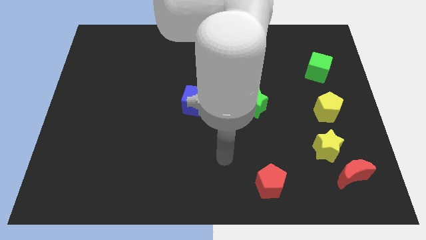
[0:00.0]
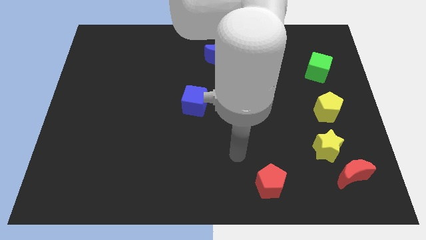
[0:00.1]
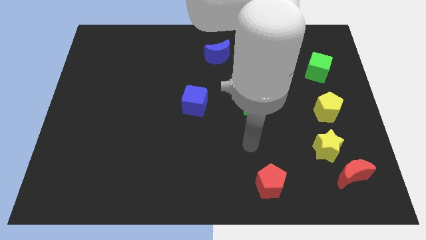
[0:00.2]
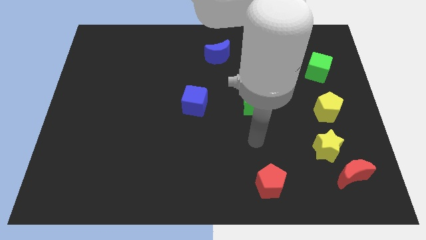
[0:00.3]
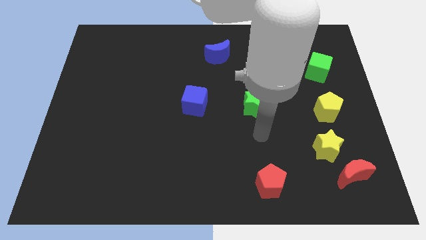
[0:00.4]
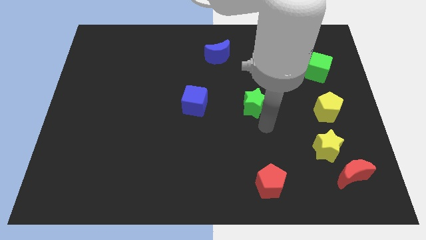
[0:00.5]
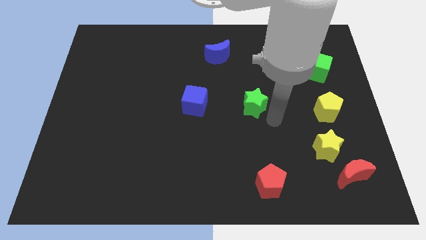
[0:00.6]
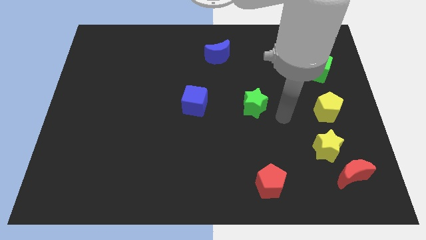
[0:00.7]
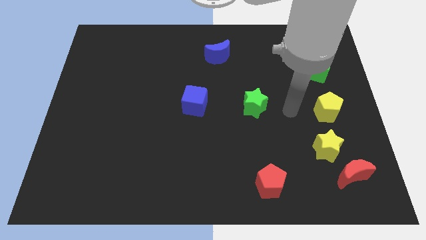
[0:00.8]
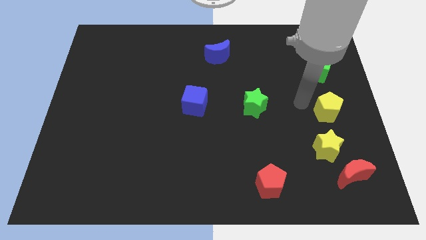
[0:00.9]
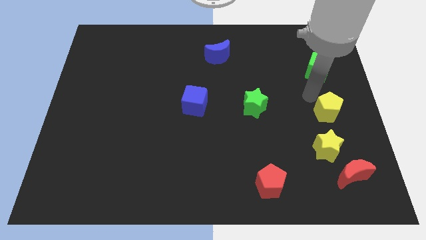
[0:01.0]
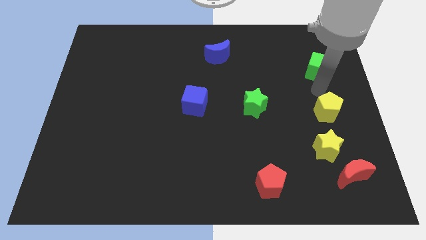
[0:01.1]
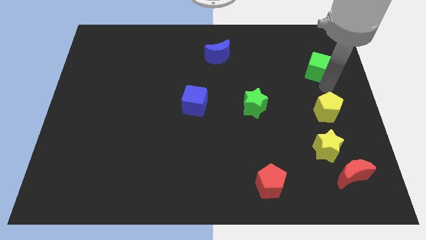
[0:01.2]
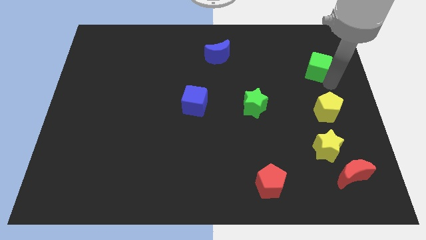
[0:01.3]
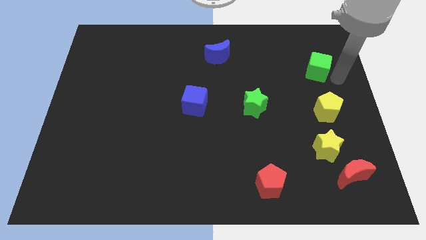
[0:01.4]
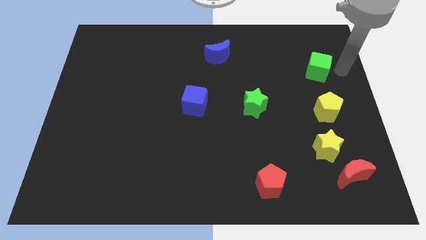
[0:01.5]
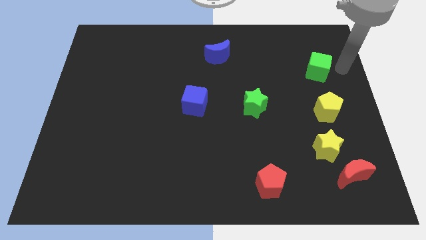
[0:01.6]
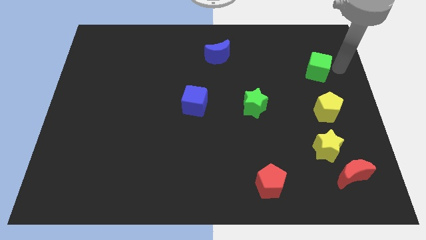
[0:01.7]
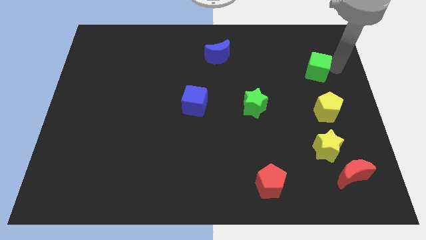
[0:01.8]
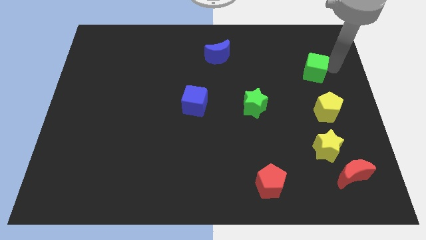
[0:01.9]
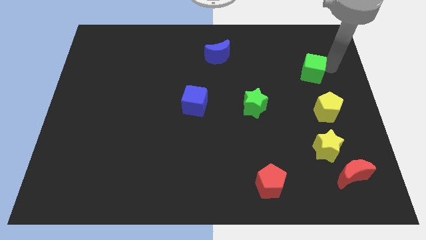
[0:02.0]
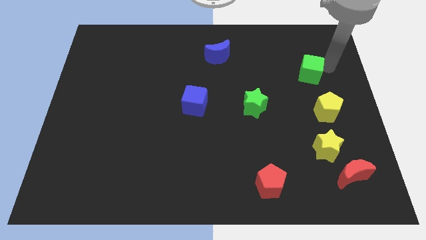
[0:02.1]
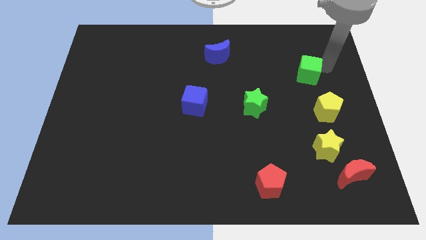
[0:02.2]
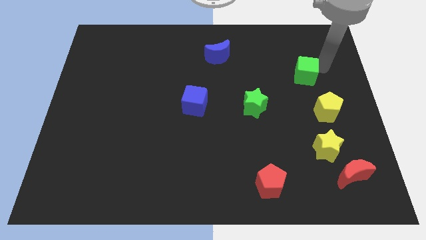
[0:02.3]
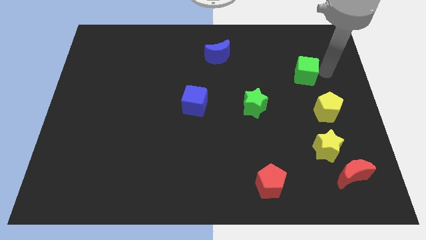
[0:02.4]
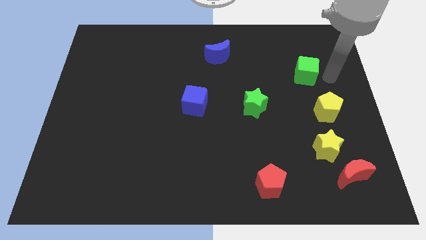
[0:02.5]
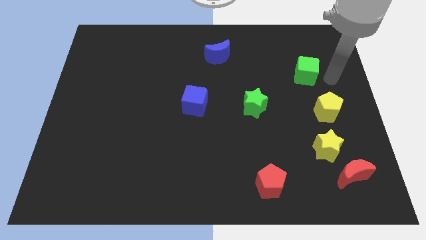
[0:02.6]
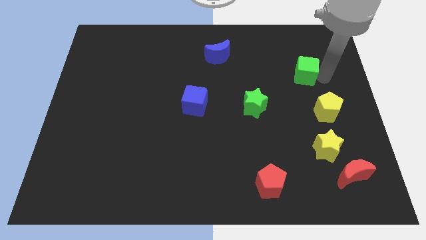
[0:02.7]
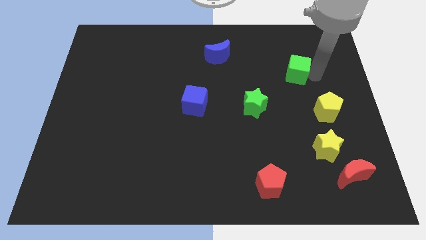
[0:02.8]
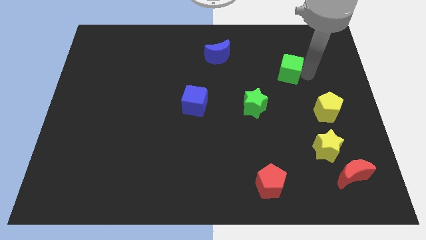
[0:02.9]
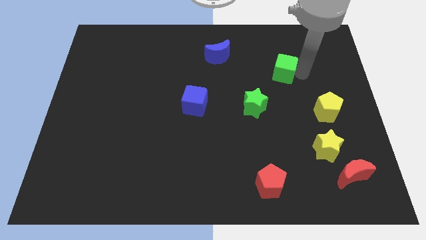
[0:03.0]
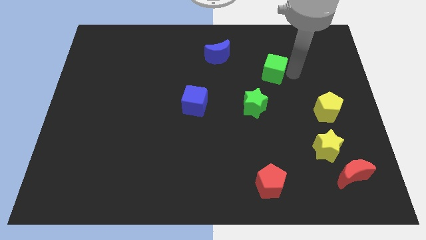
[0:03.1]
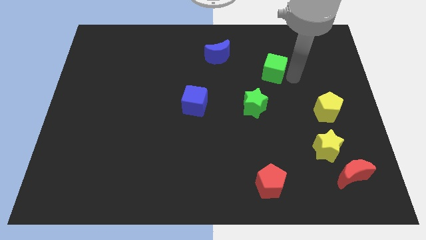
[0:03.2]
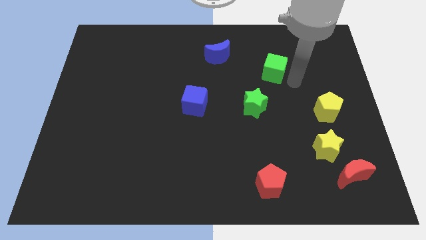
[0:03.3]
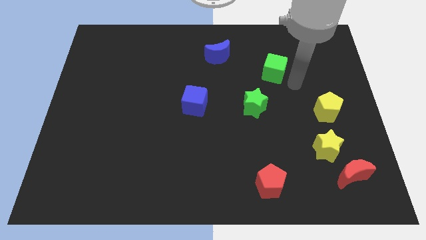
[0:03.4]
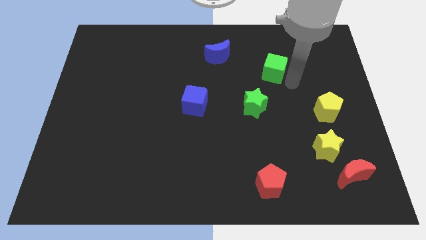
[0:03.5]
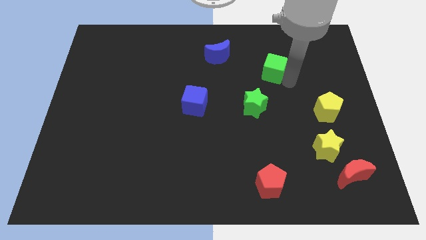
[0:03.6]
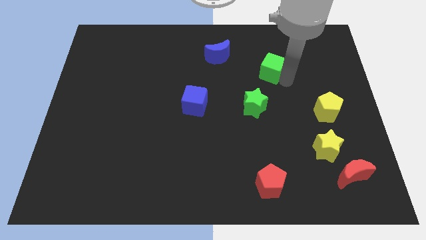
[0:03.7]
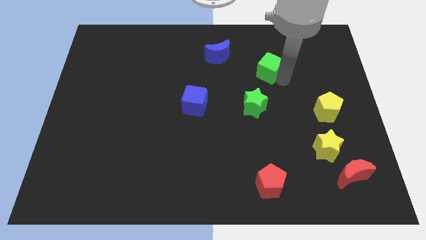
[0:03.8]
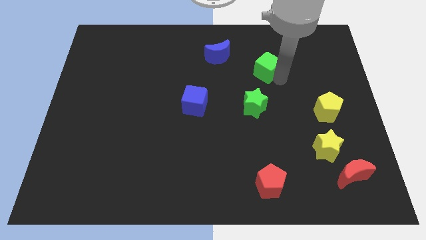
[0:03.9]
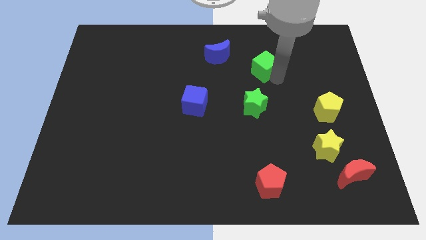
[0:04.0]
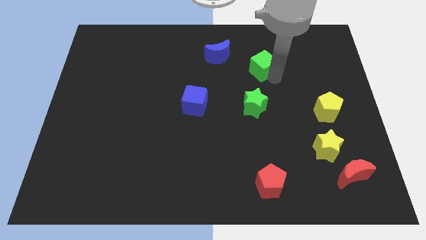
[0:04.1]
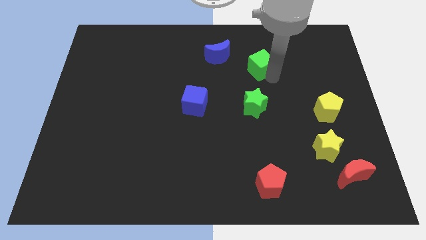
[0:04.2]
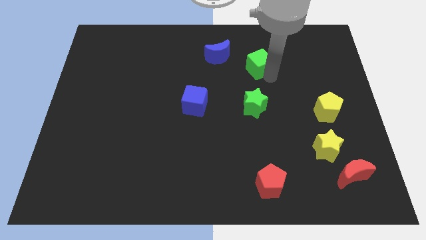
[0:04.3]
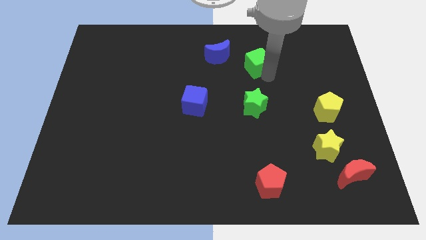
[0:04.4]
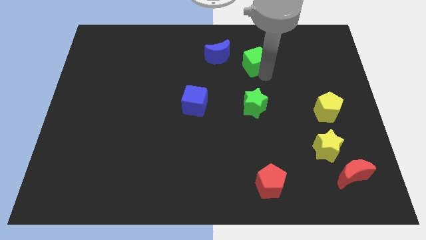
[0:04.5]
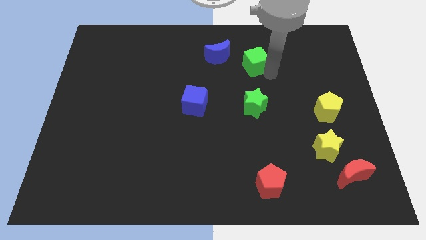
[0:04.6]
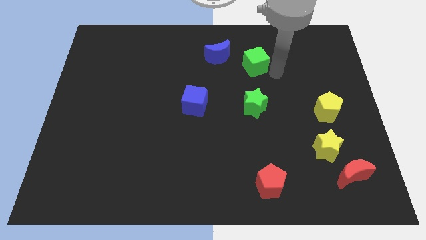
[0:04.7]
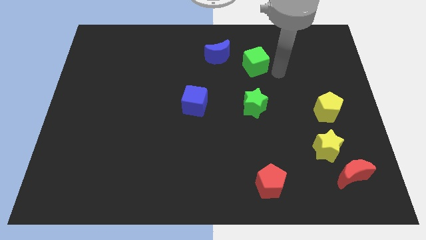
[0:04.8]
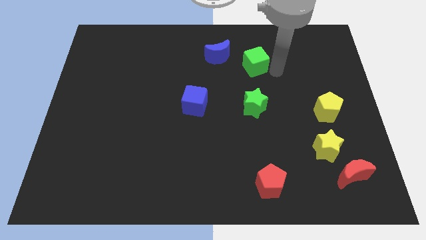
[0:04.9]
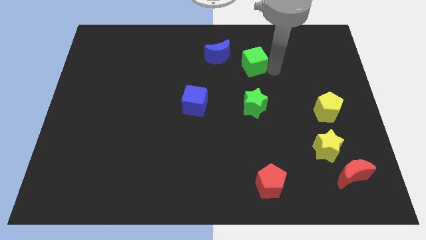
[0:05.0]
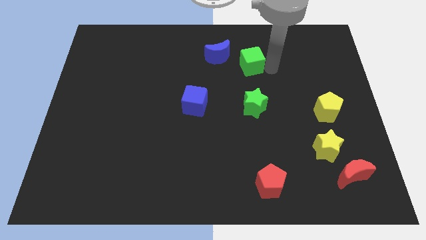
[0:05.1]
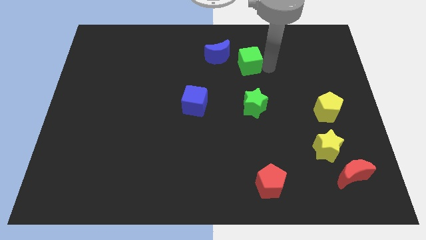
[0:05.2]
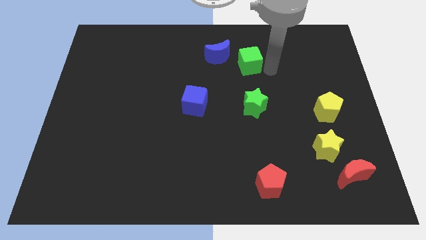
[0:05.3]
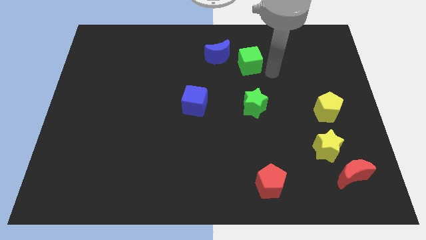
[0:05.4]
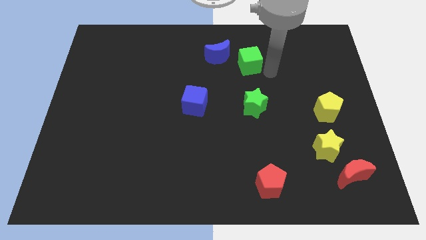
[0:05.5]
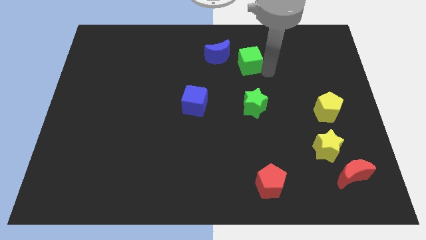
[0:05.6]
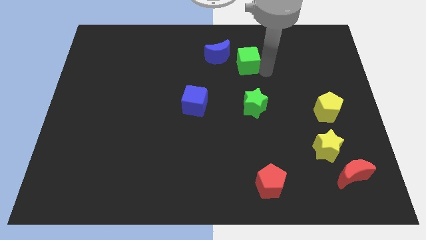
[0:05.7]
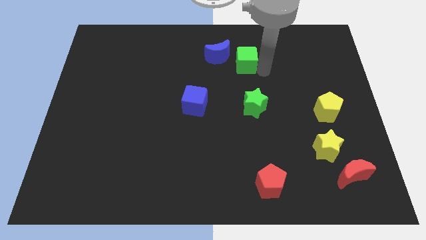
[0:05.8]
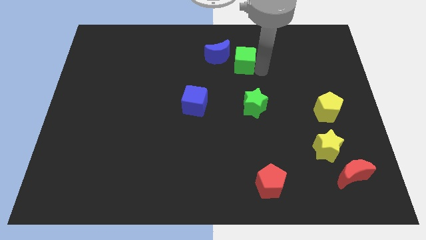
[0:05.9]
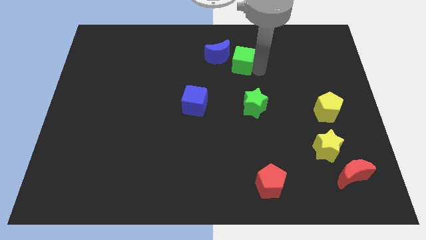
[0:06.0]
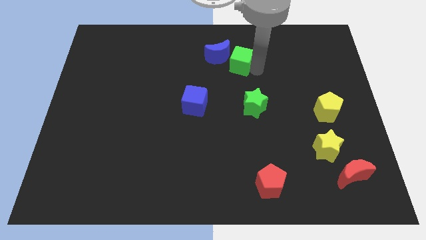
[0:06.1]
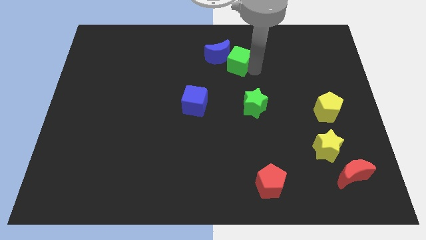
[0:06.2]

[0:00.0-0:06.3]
slide the green cube to the blue moon
